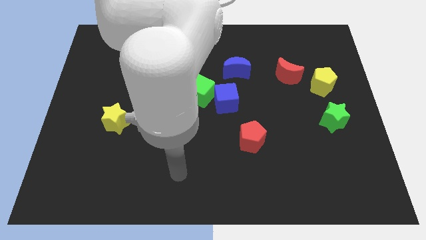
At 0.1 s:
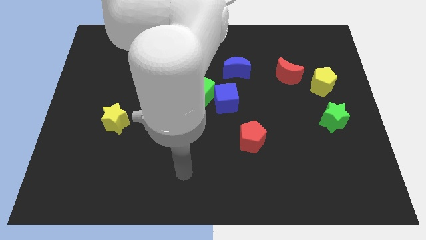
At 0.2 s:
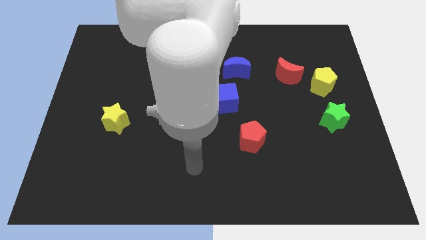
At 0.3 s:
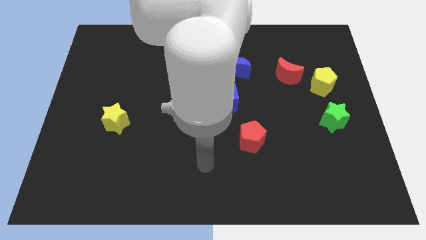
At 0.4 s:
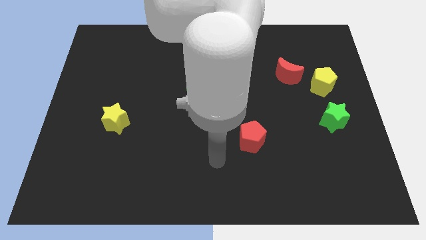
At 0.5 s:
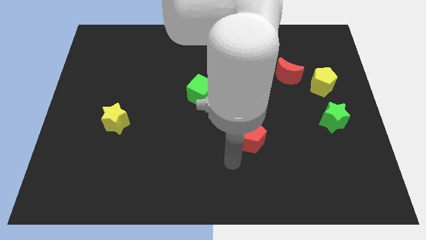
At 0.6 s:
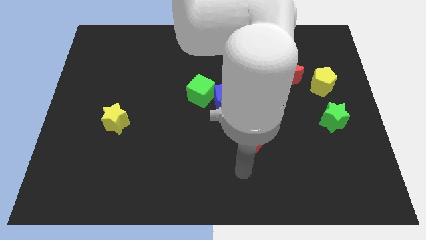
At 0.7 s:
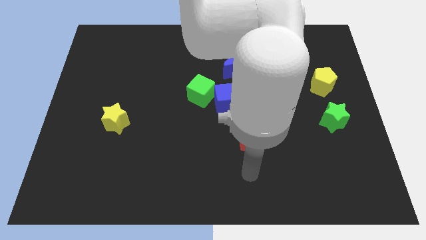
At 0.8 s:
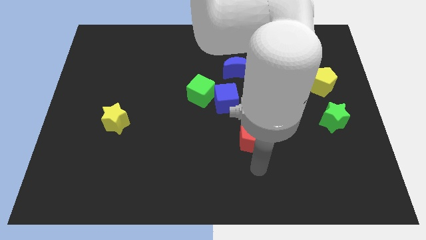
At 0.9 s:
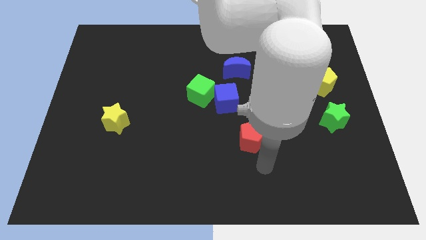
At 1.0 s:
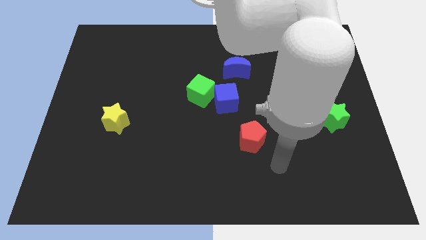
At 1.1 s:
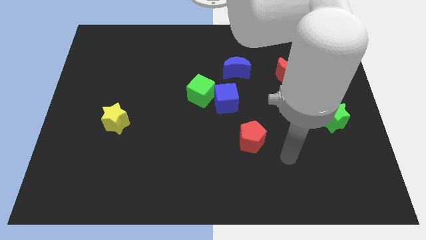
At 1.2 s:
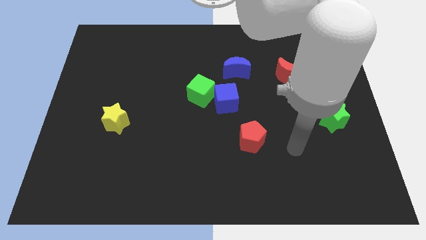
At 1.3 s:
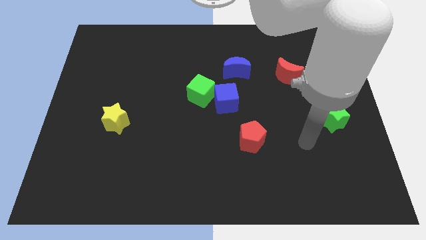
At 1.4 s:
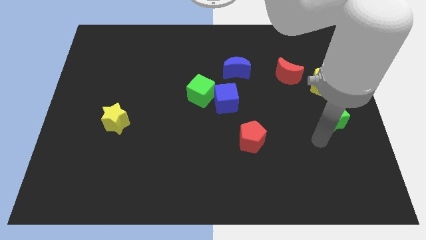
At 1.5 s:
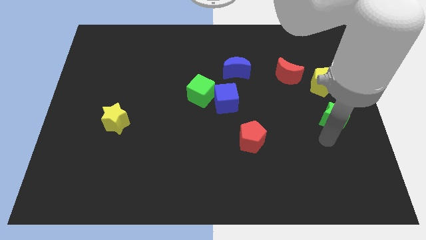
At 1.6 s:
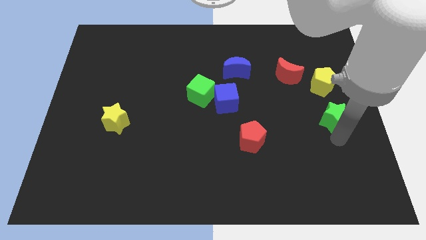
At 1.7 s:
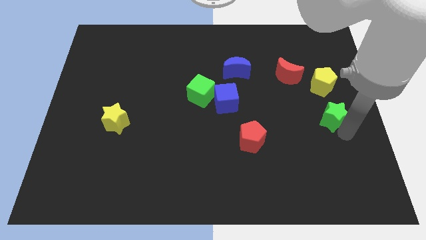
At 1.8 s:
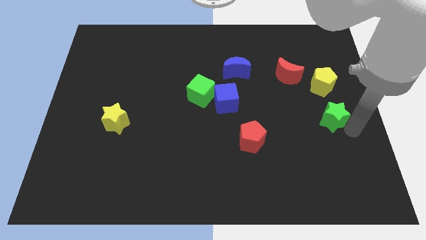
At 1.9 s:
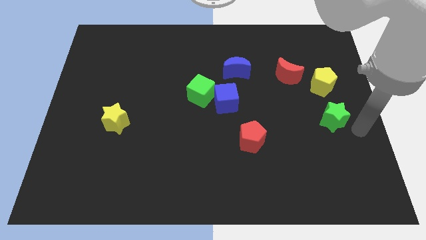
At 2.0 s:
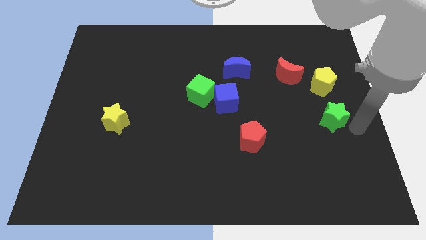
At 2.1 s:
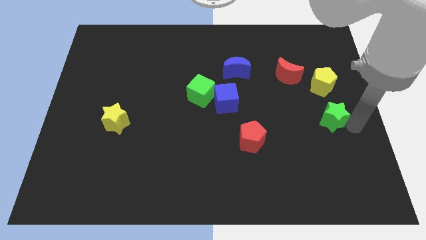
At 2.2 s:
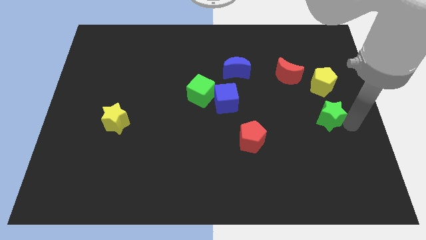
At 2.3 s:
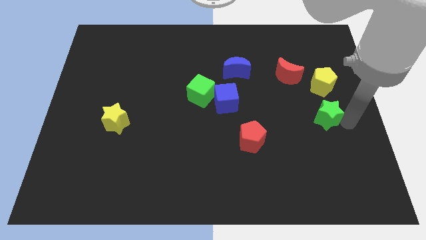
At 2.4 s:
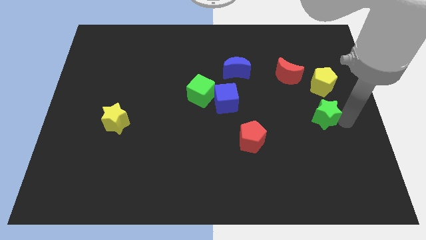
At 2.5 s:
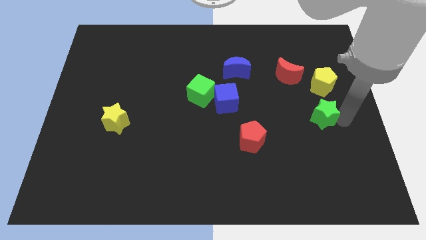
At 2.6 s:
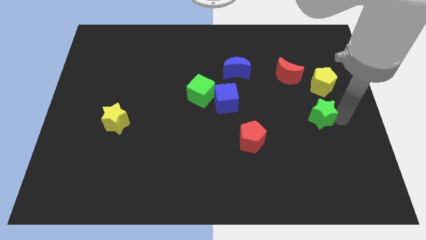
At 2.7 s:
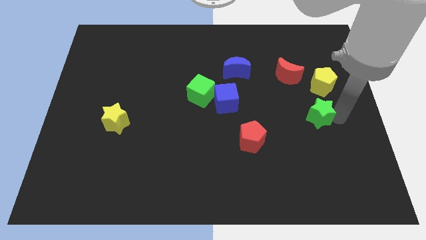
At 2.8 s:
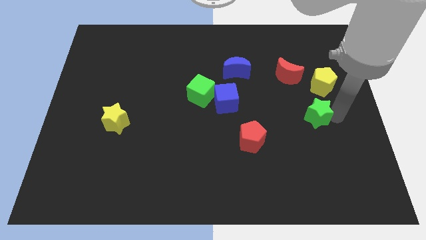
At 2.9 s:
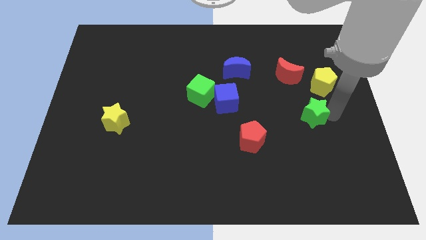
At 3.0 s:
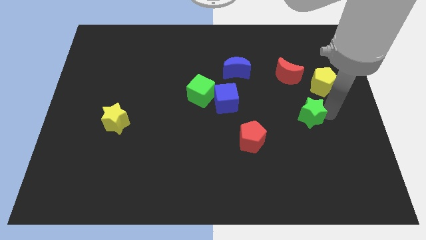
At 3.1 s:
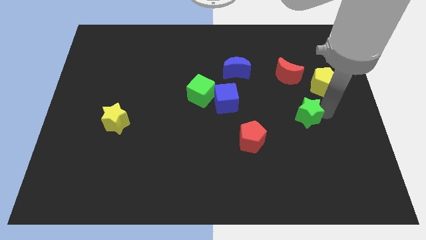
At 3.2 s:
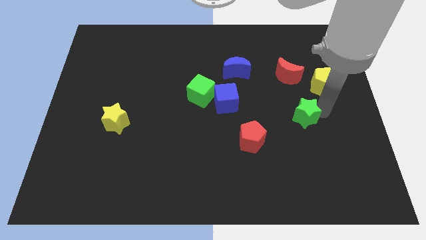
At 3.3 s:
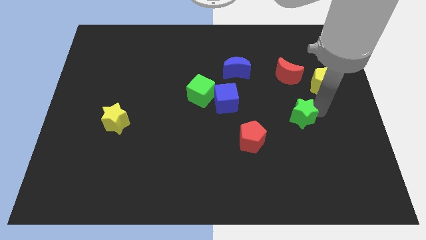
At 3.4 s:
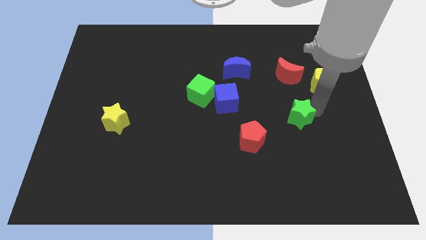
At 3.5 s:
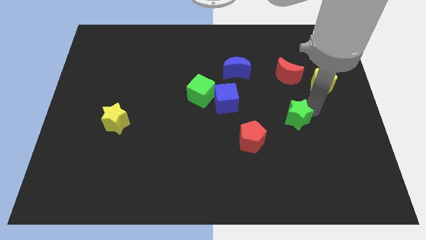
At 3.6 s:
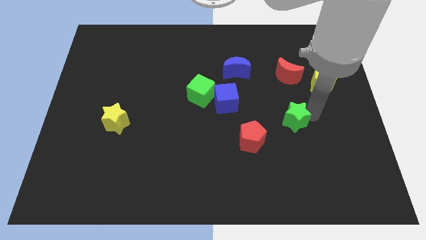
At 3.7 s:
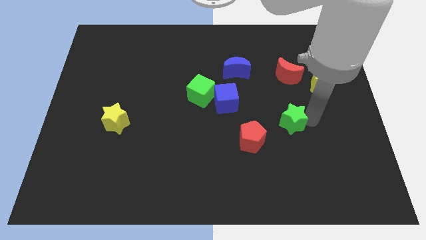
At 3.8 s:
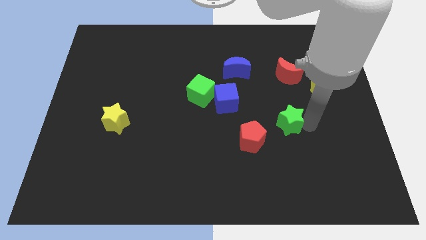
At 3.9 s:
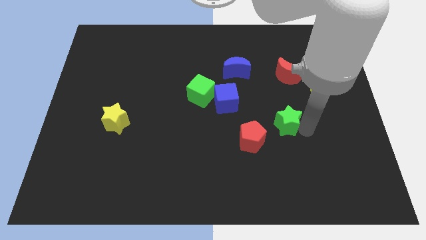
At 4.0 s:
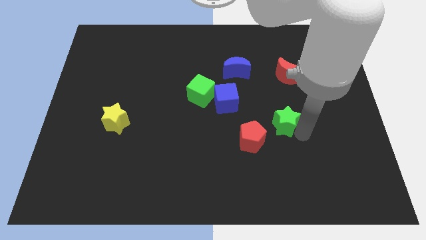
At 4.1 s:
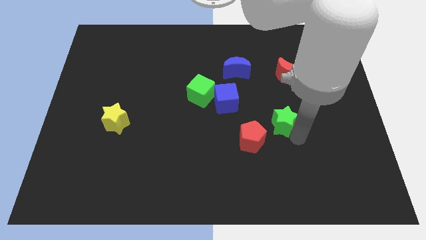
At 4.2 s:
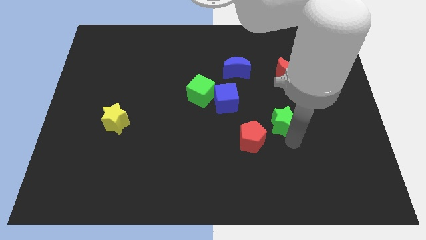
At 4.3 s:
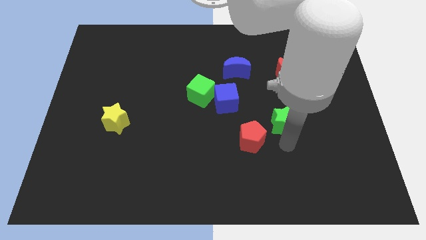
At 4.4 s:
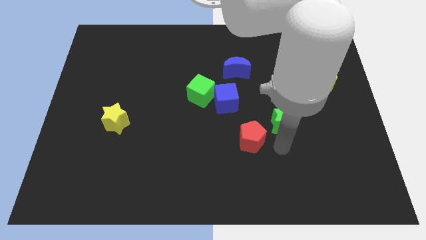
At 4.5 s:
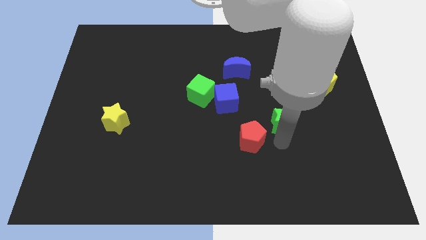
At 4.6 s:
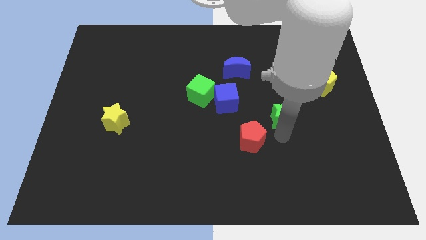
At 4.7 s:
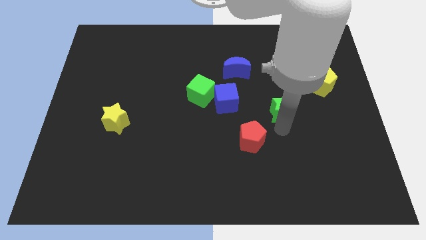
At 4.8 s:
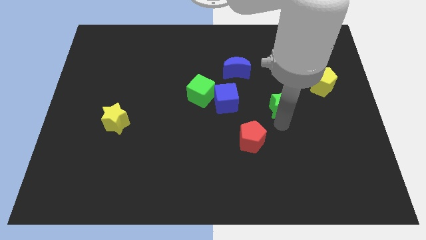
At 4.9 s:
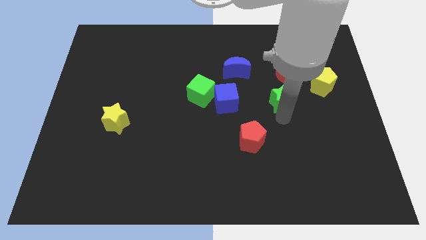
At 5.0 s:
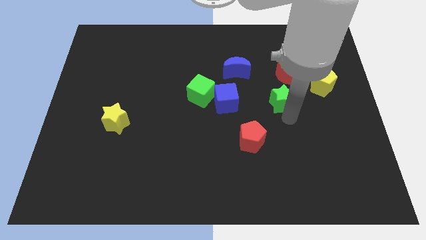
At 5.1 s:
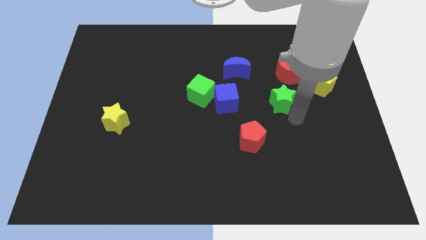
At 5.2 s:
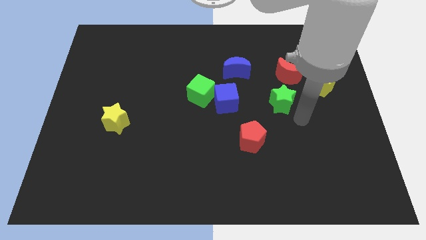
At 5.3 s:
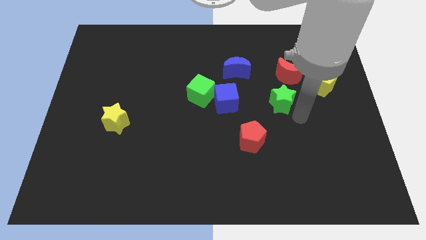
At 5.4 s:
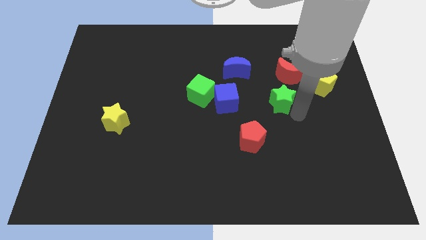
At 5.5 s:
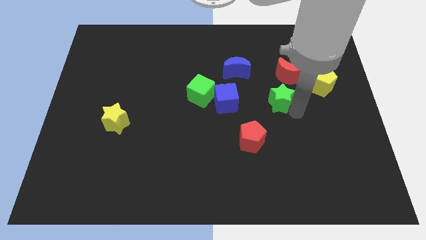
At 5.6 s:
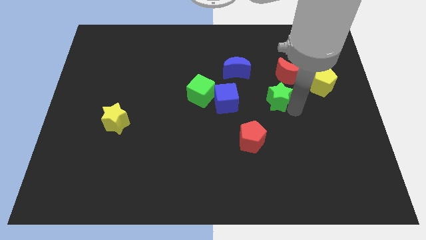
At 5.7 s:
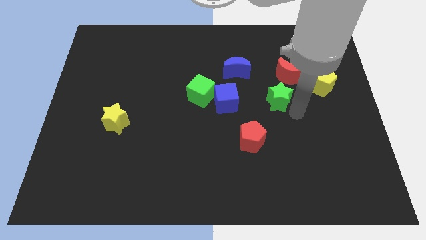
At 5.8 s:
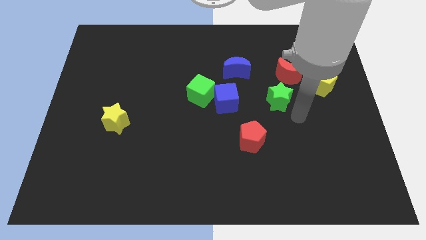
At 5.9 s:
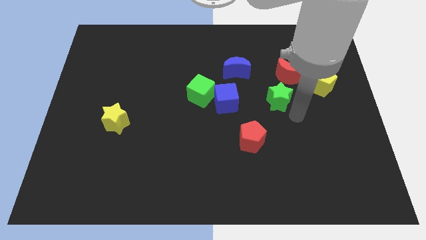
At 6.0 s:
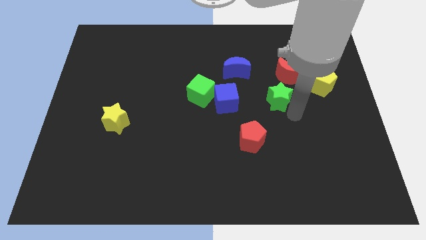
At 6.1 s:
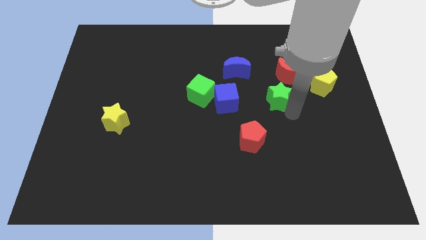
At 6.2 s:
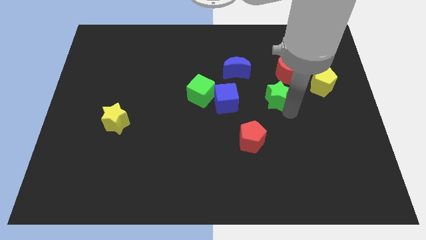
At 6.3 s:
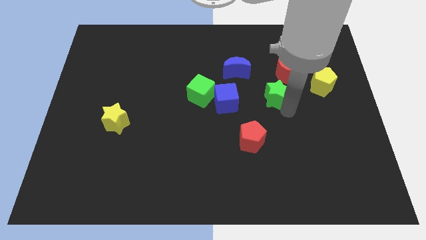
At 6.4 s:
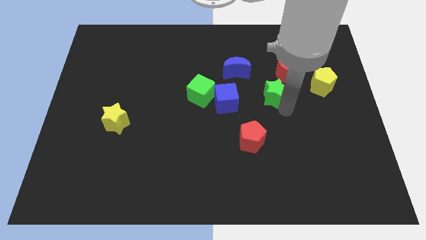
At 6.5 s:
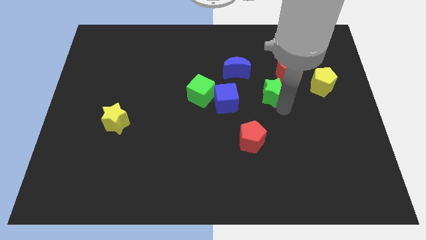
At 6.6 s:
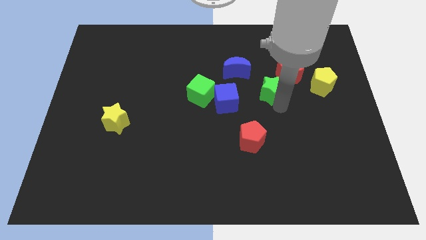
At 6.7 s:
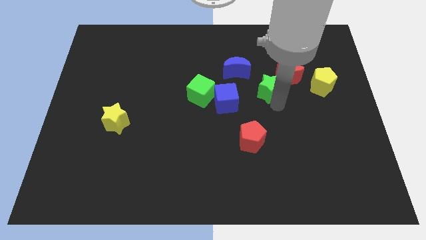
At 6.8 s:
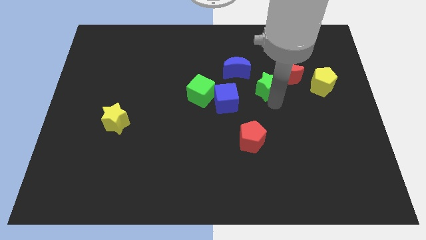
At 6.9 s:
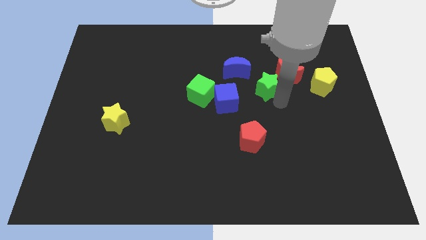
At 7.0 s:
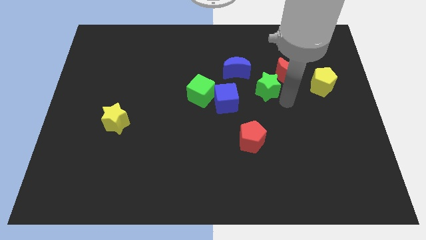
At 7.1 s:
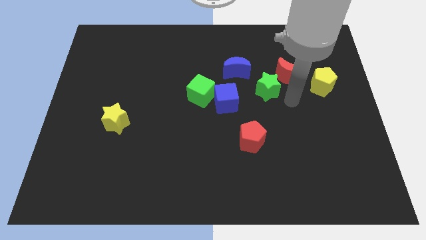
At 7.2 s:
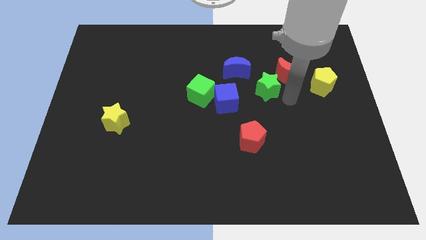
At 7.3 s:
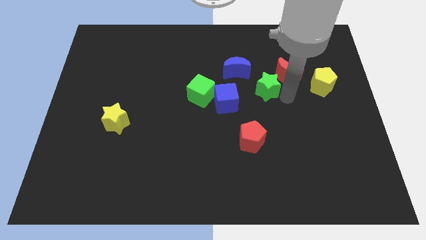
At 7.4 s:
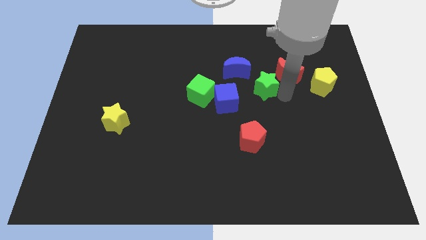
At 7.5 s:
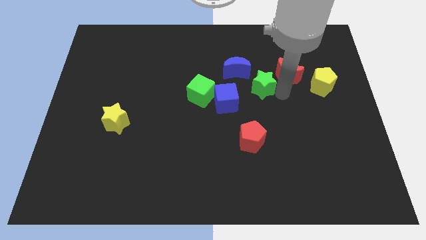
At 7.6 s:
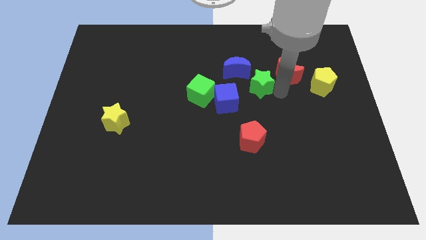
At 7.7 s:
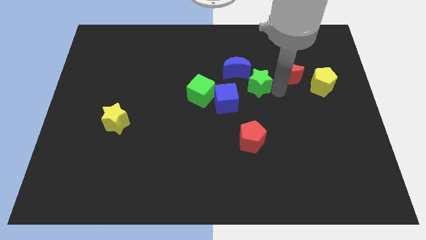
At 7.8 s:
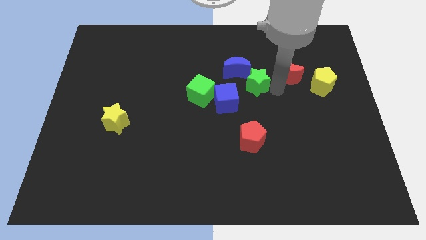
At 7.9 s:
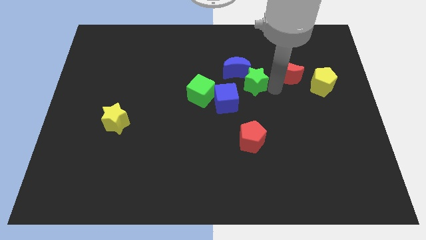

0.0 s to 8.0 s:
put the green star to the blue moon
